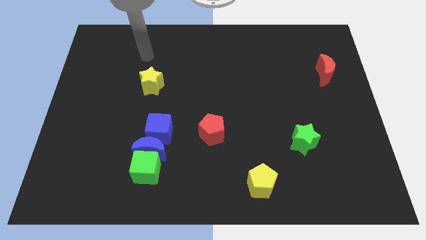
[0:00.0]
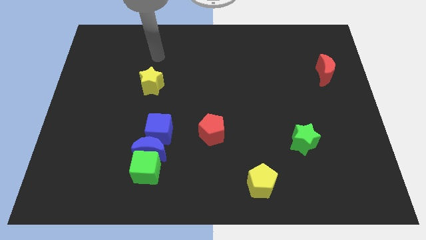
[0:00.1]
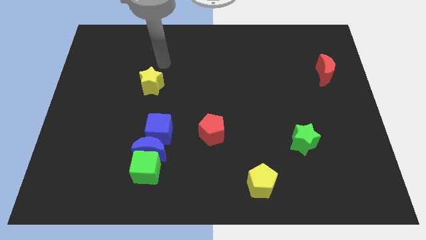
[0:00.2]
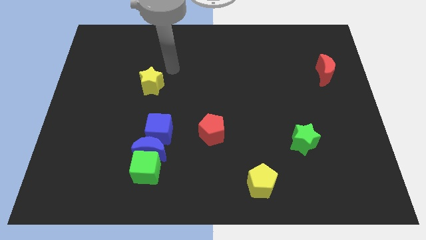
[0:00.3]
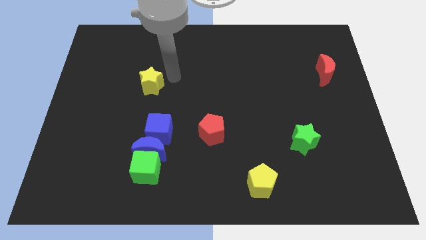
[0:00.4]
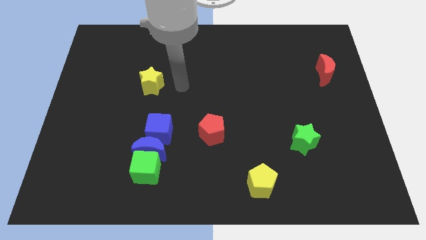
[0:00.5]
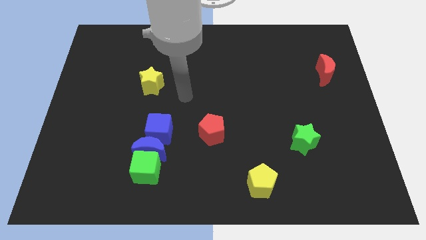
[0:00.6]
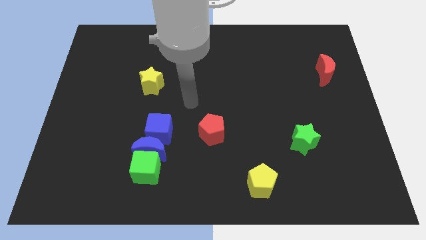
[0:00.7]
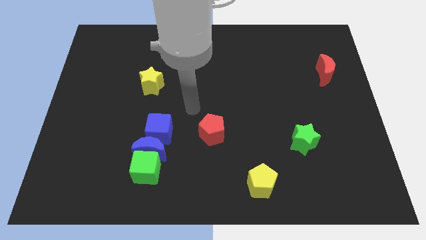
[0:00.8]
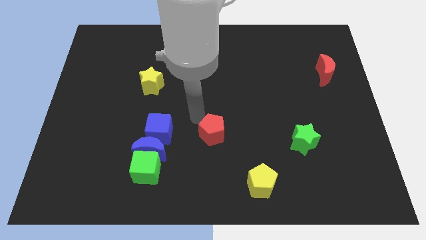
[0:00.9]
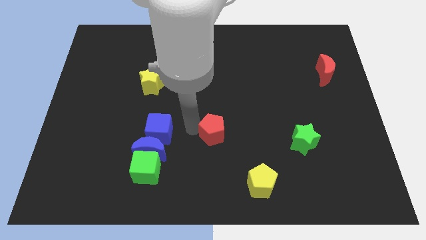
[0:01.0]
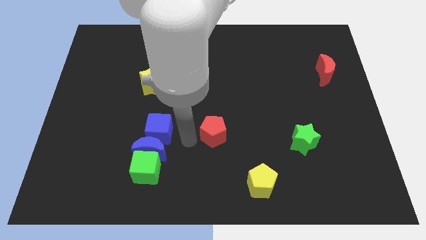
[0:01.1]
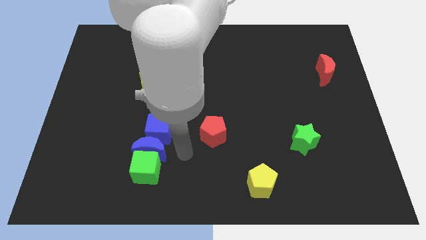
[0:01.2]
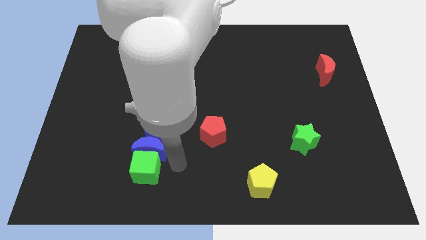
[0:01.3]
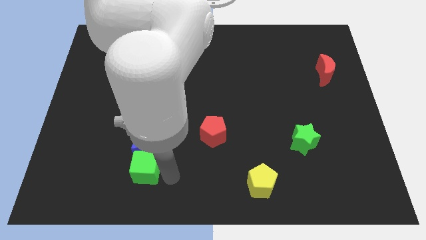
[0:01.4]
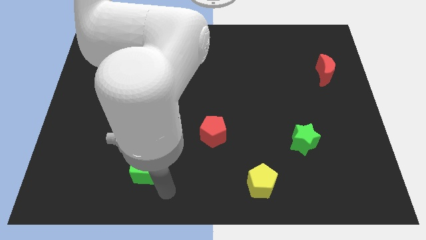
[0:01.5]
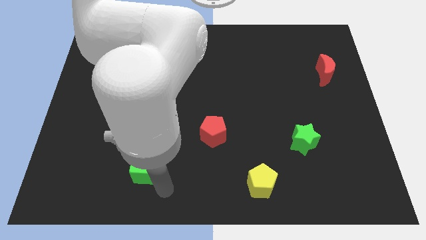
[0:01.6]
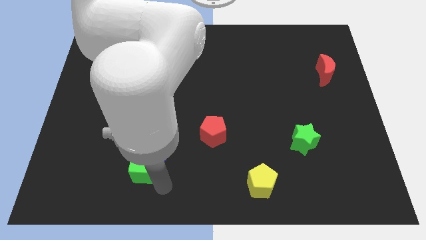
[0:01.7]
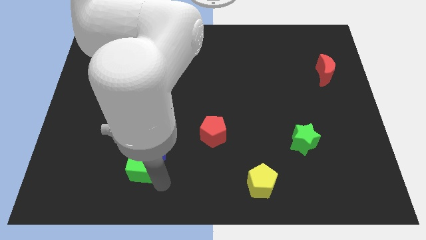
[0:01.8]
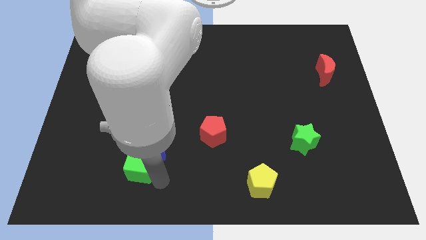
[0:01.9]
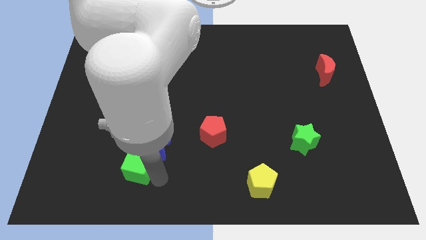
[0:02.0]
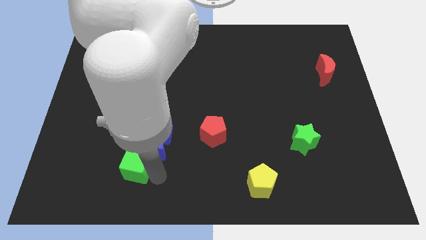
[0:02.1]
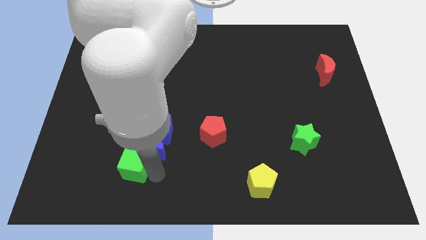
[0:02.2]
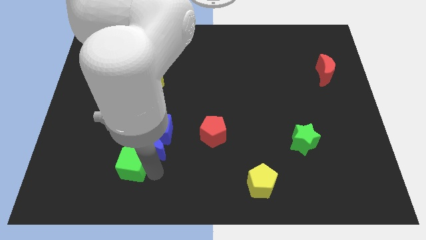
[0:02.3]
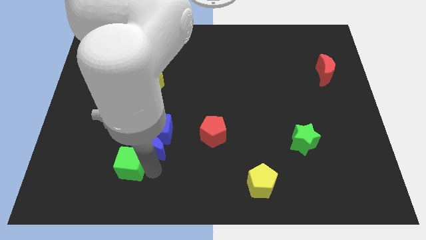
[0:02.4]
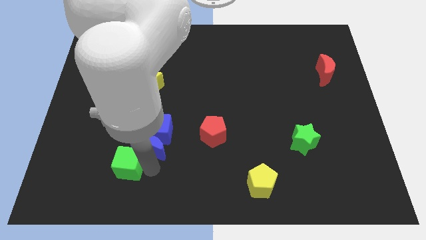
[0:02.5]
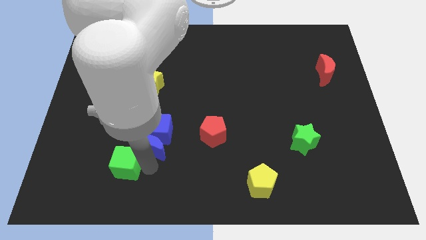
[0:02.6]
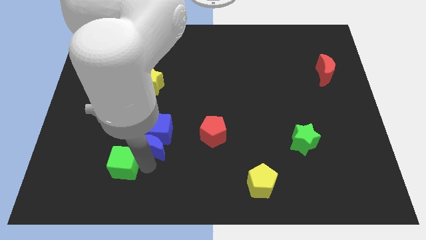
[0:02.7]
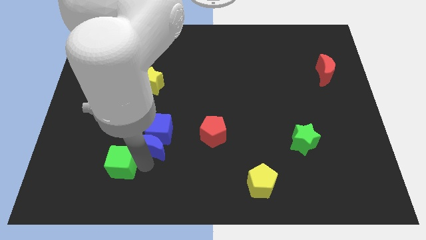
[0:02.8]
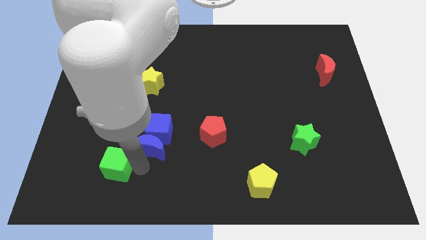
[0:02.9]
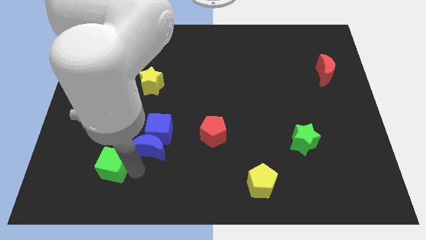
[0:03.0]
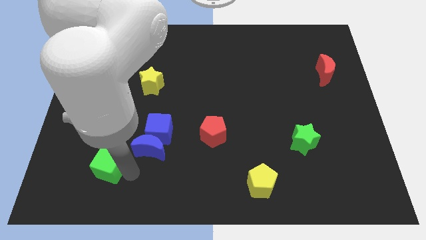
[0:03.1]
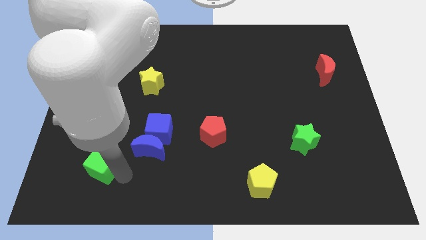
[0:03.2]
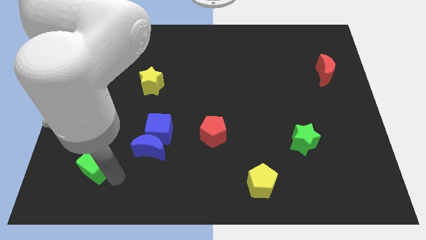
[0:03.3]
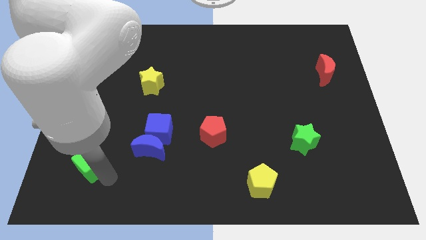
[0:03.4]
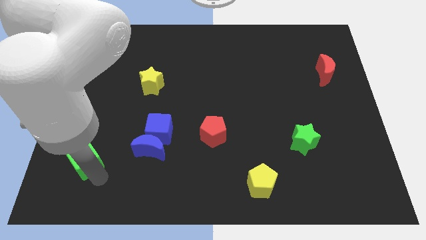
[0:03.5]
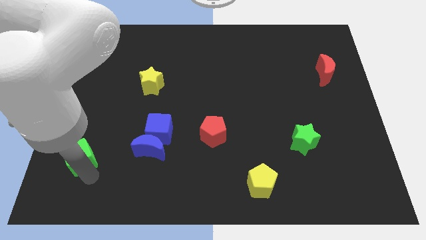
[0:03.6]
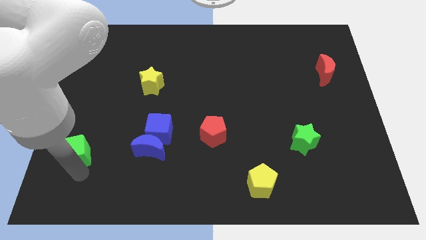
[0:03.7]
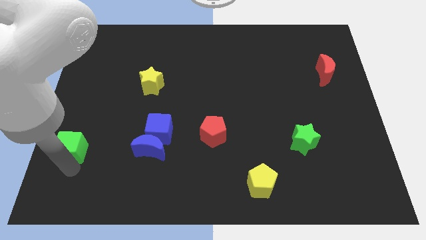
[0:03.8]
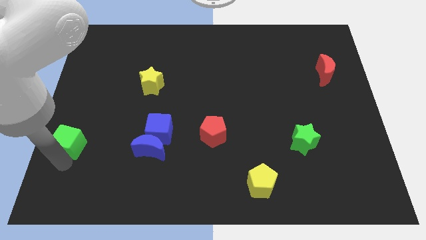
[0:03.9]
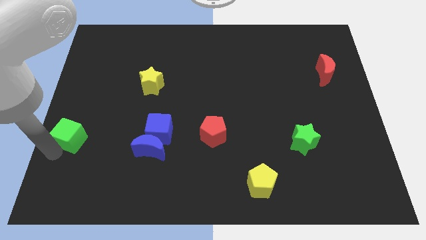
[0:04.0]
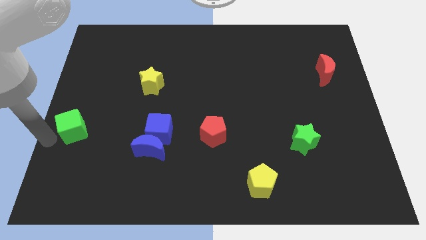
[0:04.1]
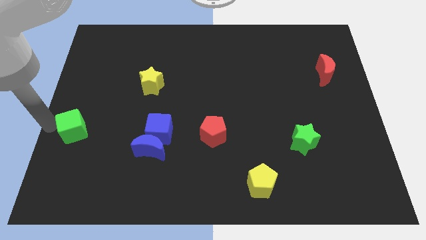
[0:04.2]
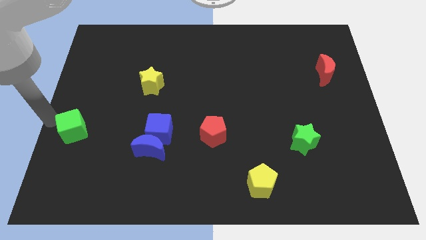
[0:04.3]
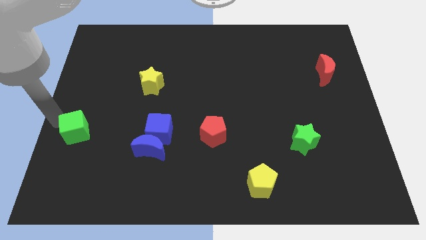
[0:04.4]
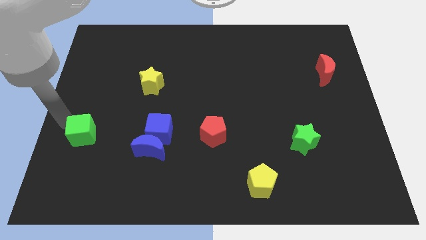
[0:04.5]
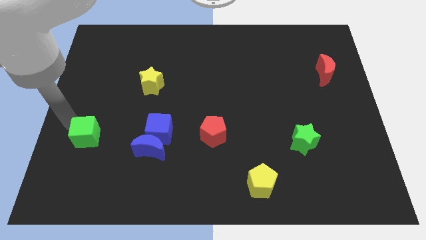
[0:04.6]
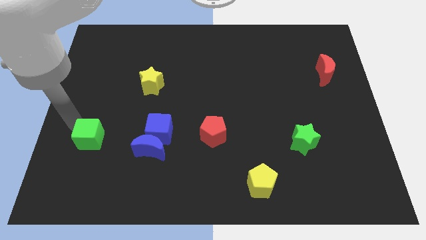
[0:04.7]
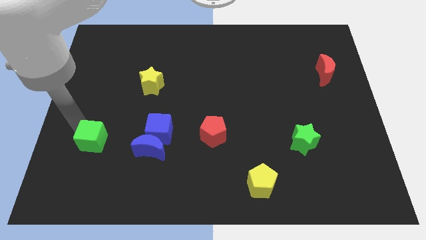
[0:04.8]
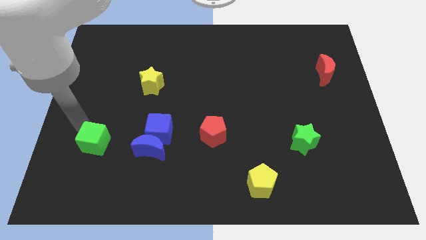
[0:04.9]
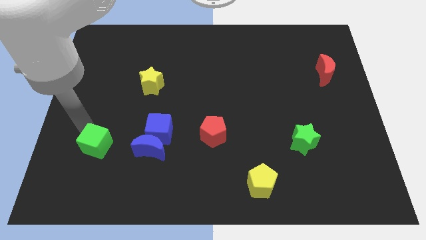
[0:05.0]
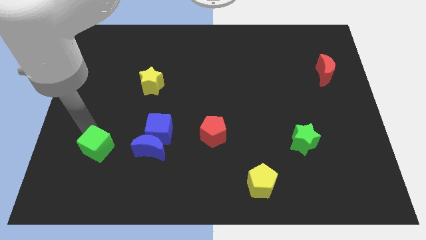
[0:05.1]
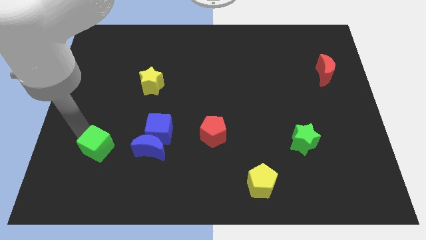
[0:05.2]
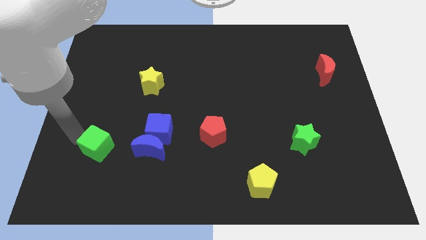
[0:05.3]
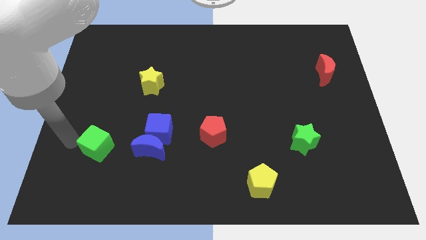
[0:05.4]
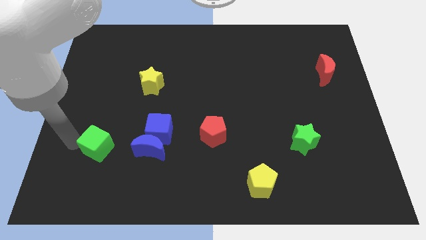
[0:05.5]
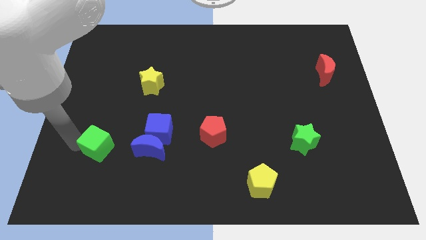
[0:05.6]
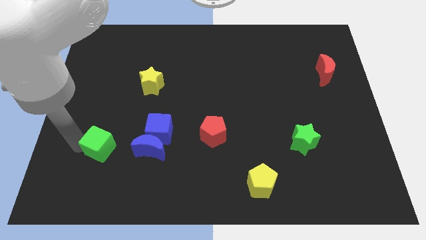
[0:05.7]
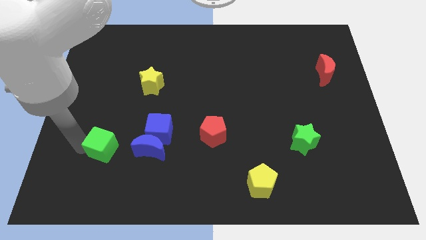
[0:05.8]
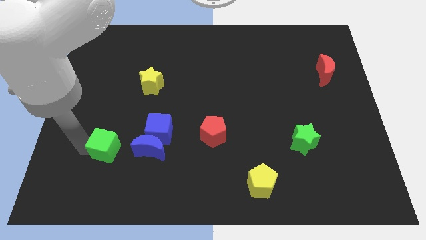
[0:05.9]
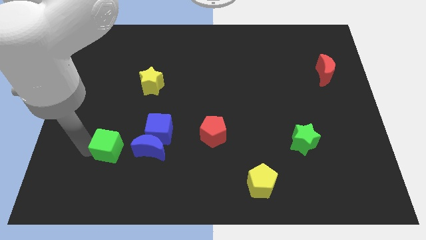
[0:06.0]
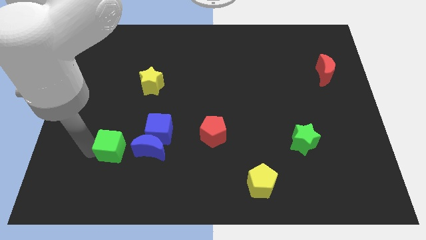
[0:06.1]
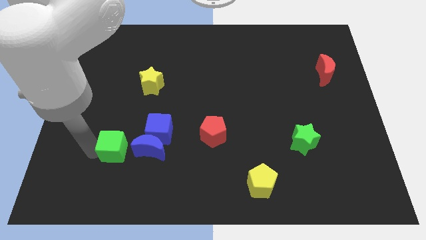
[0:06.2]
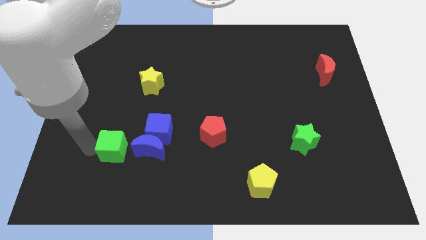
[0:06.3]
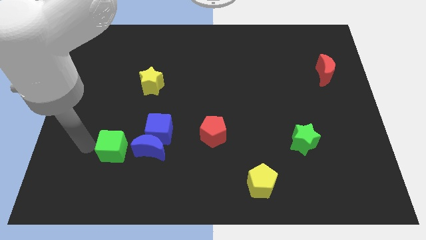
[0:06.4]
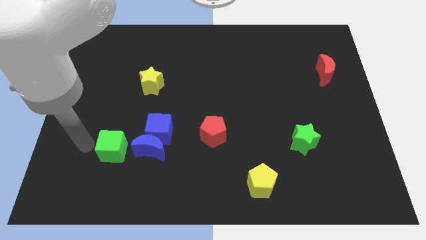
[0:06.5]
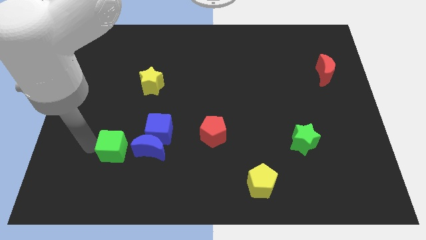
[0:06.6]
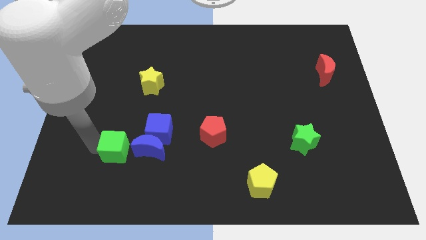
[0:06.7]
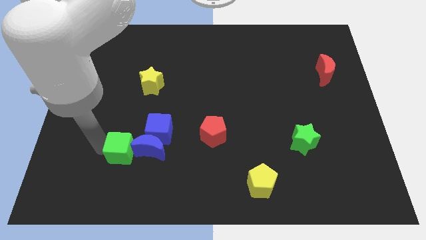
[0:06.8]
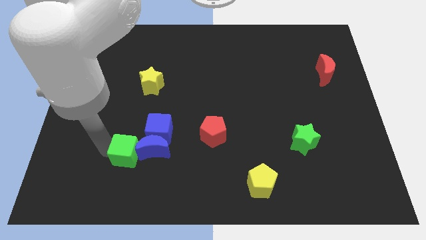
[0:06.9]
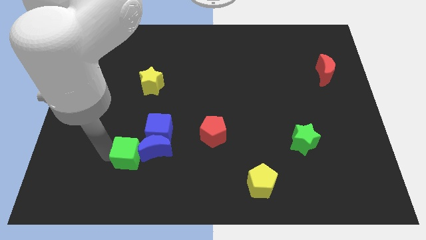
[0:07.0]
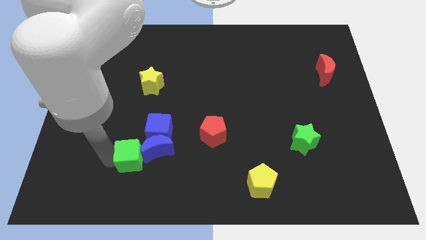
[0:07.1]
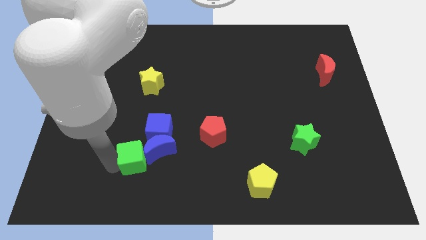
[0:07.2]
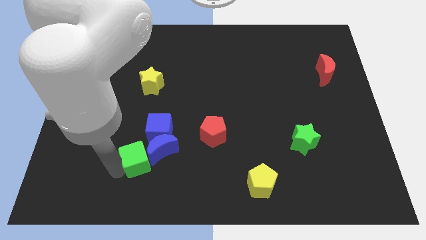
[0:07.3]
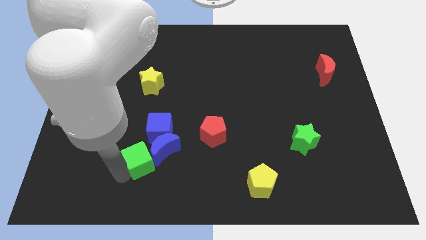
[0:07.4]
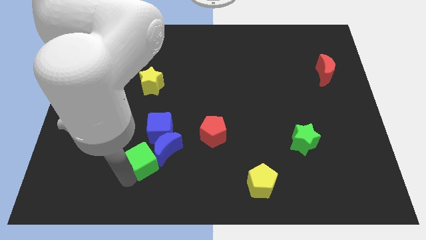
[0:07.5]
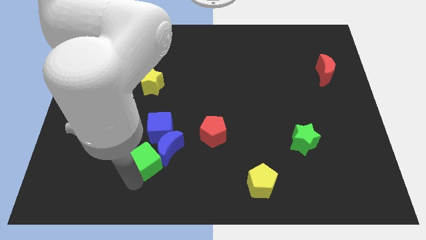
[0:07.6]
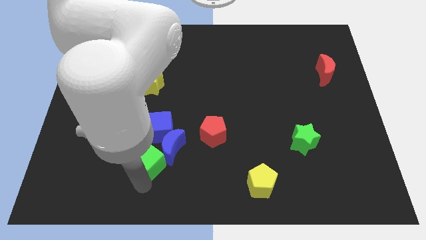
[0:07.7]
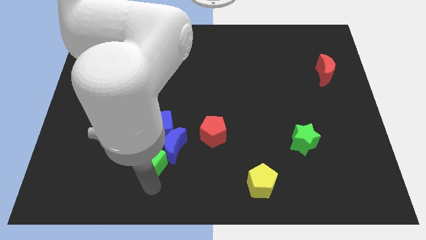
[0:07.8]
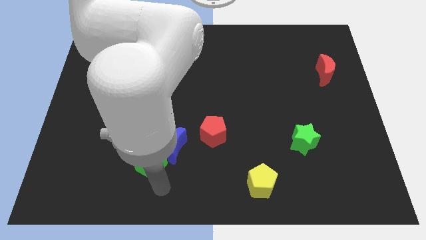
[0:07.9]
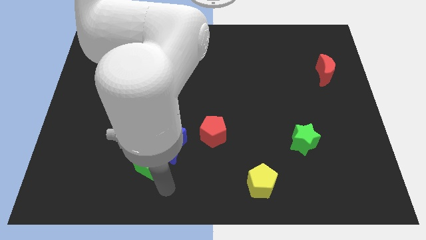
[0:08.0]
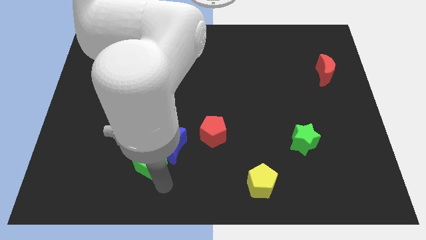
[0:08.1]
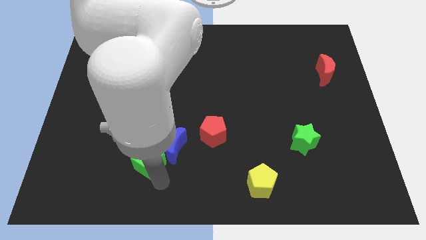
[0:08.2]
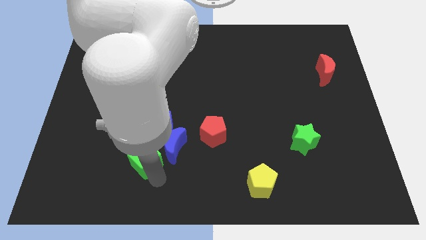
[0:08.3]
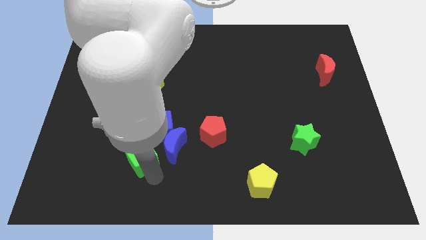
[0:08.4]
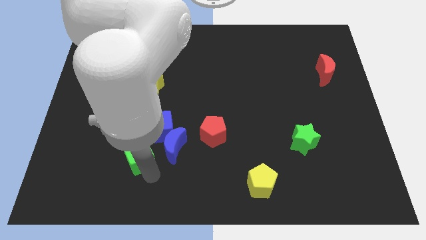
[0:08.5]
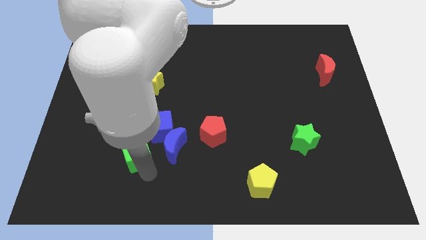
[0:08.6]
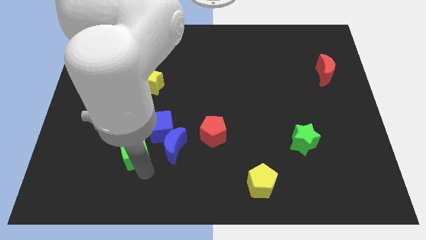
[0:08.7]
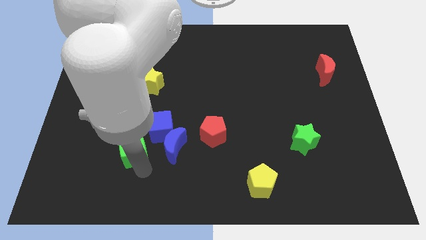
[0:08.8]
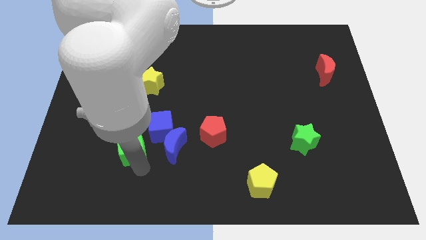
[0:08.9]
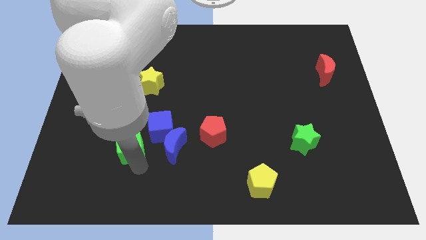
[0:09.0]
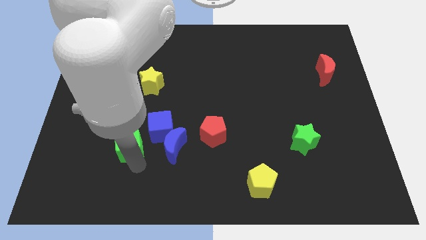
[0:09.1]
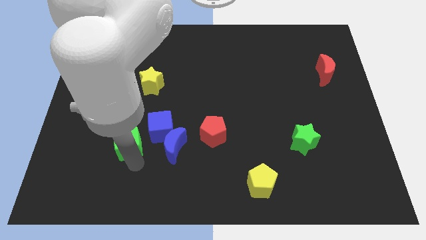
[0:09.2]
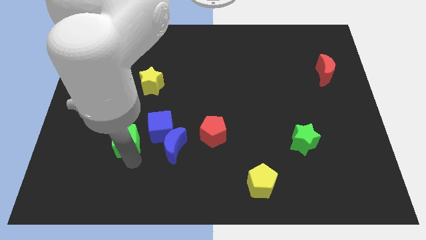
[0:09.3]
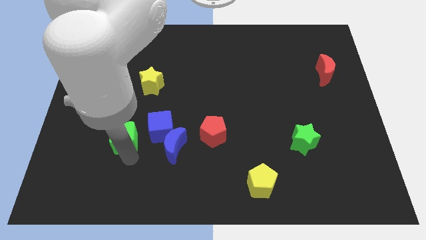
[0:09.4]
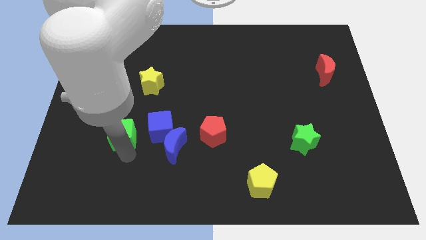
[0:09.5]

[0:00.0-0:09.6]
slide the green cube slightly up
